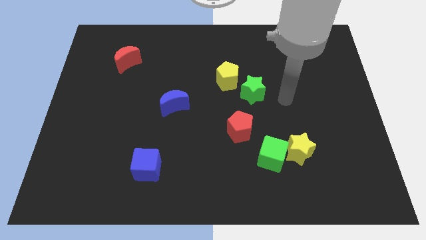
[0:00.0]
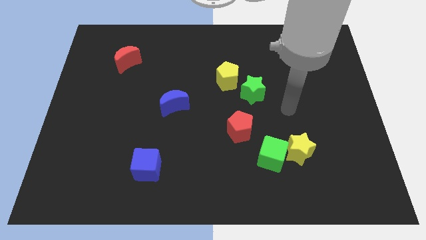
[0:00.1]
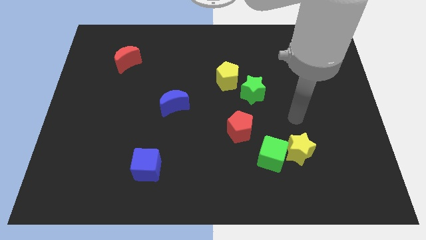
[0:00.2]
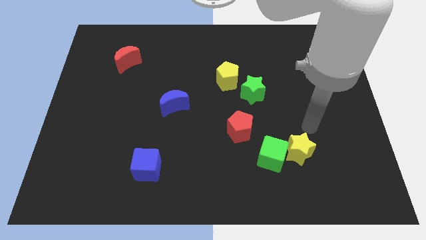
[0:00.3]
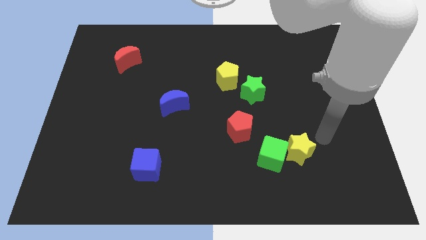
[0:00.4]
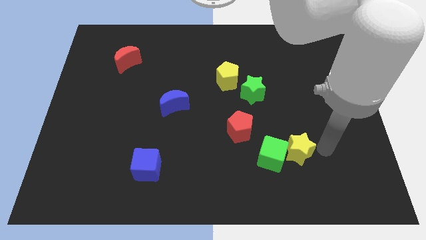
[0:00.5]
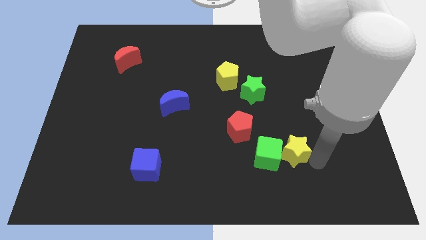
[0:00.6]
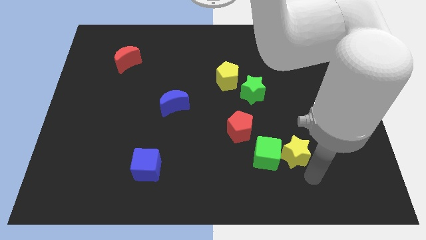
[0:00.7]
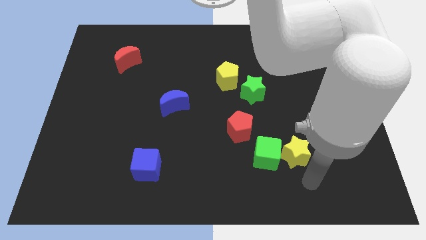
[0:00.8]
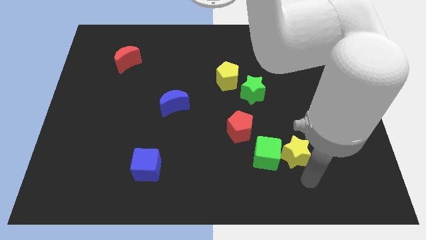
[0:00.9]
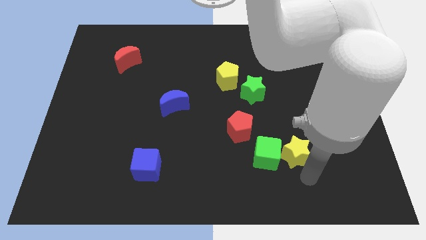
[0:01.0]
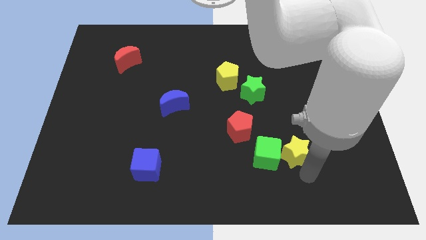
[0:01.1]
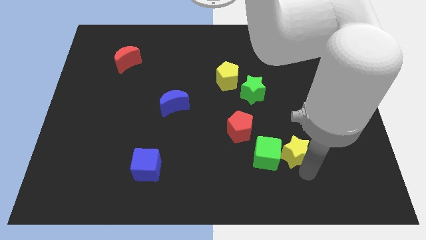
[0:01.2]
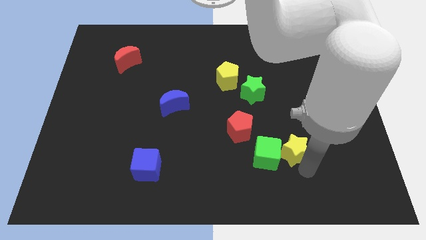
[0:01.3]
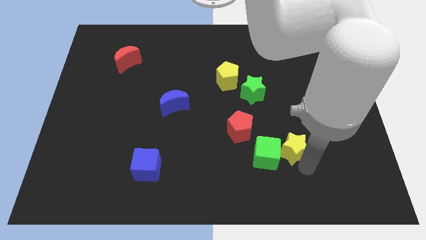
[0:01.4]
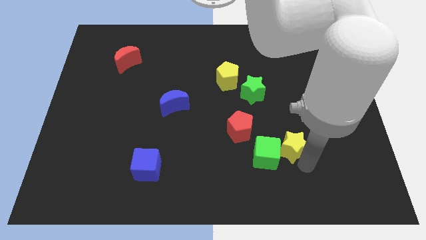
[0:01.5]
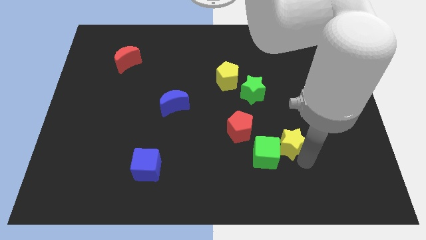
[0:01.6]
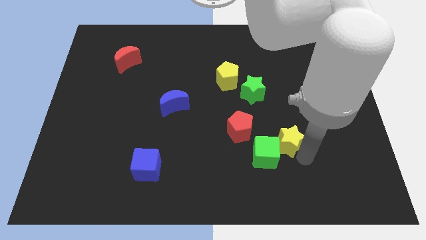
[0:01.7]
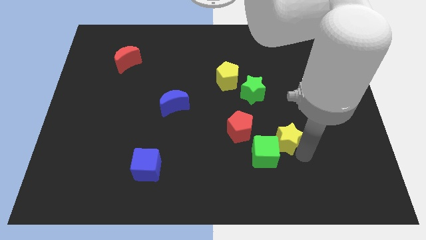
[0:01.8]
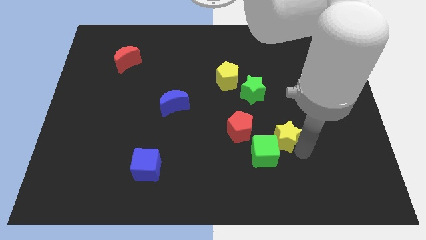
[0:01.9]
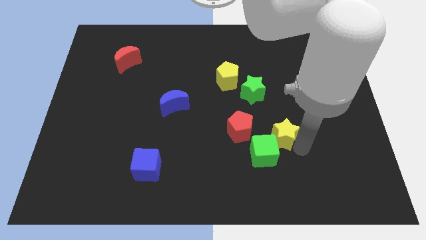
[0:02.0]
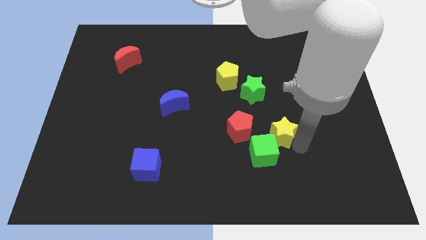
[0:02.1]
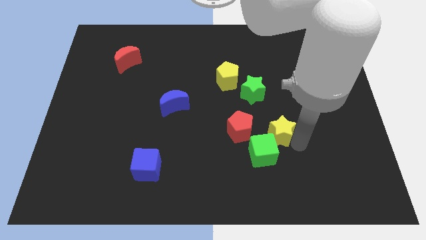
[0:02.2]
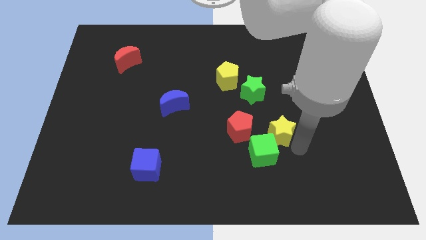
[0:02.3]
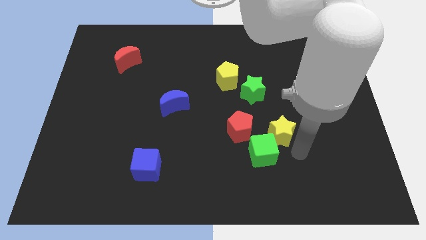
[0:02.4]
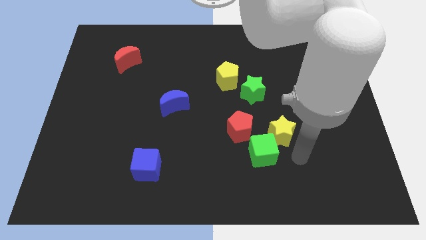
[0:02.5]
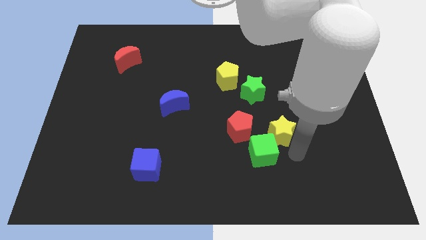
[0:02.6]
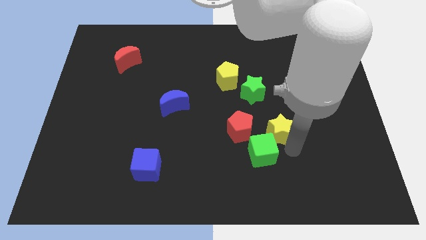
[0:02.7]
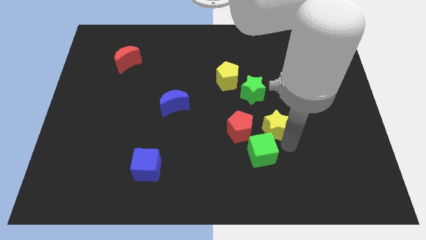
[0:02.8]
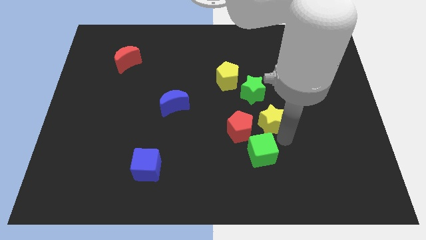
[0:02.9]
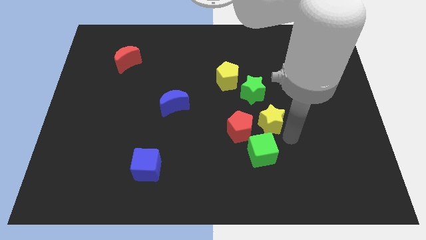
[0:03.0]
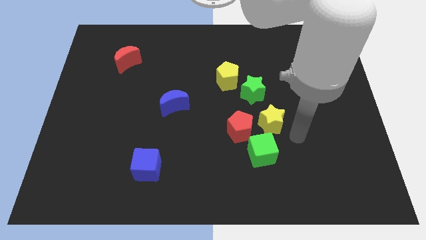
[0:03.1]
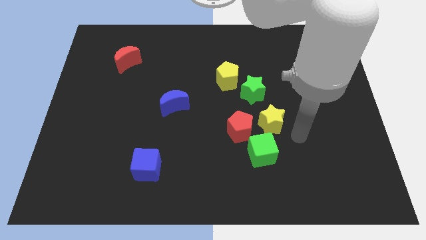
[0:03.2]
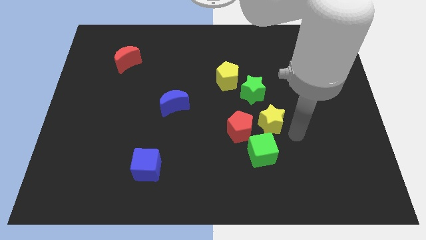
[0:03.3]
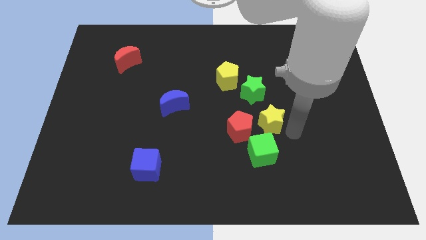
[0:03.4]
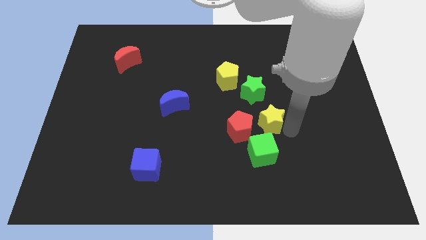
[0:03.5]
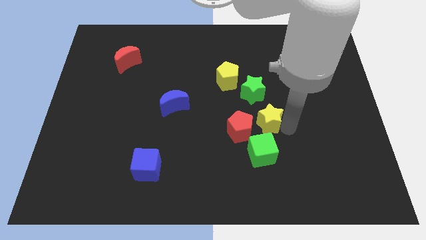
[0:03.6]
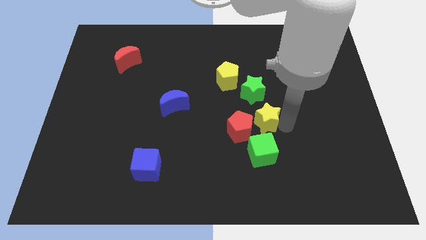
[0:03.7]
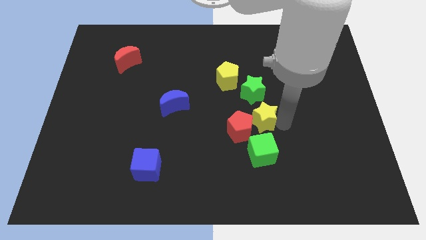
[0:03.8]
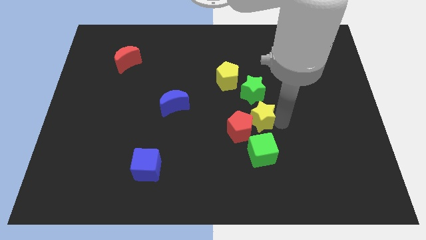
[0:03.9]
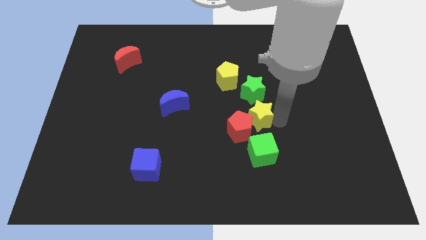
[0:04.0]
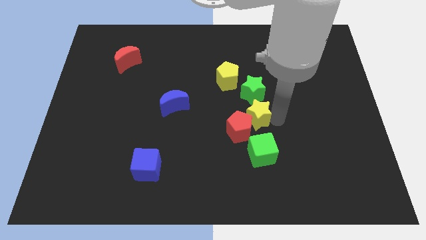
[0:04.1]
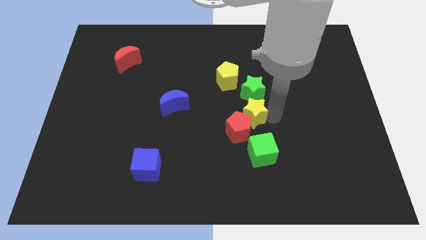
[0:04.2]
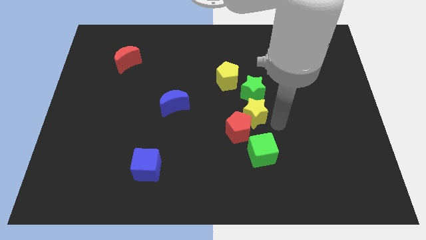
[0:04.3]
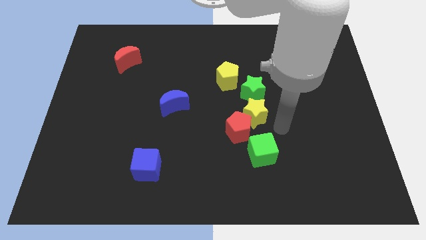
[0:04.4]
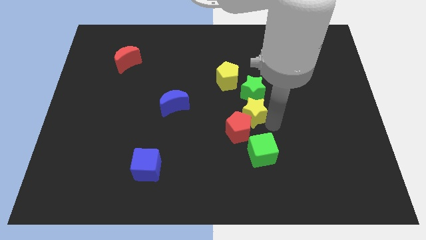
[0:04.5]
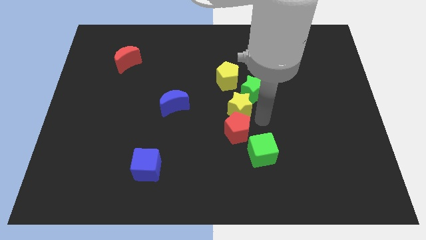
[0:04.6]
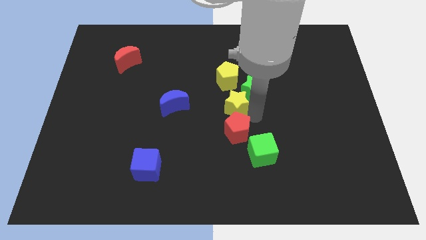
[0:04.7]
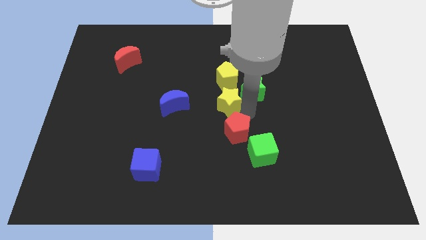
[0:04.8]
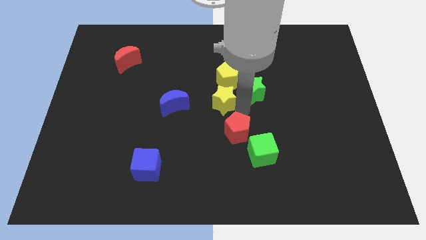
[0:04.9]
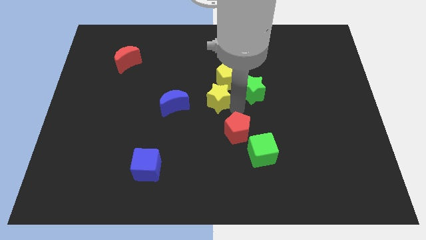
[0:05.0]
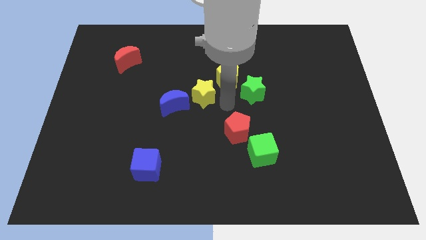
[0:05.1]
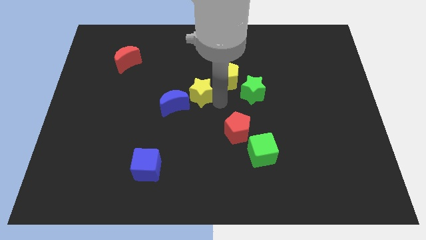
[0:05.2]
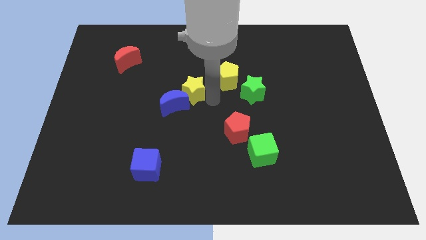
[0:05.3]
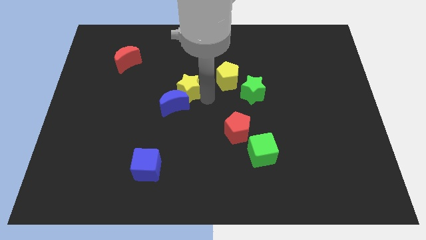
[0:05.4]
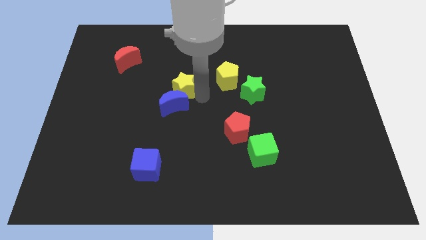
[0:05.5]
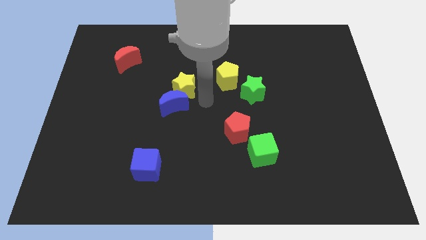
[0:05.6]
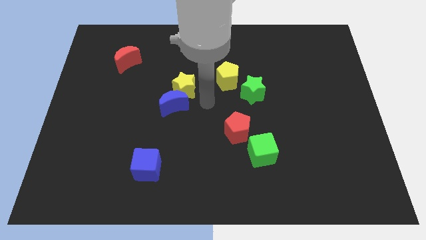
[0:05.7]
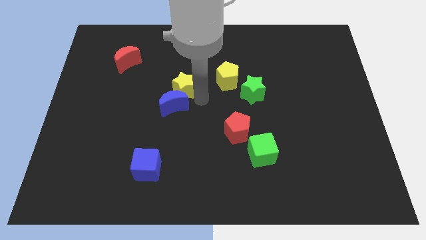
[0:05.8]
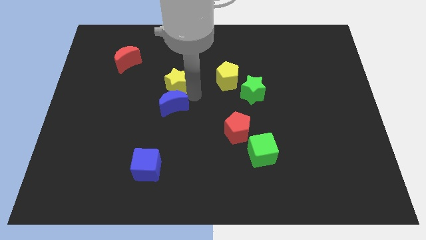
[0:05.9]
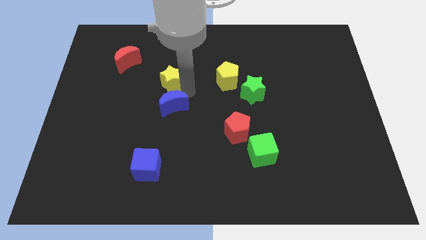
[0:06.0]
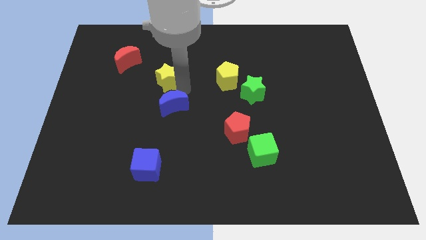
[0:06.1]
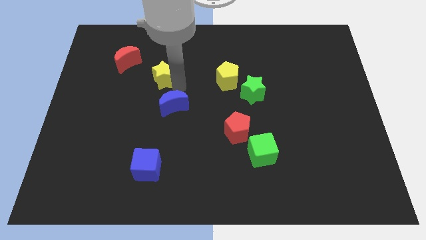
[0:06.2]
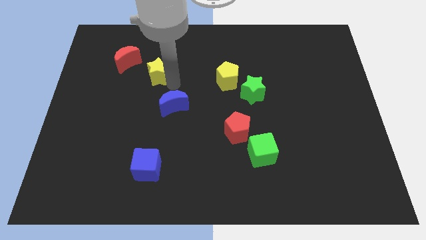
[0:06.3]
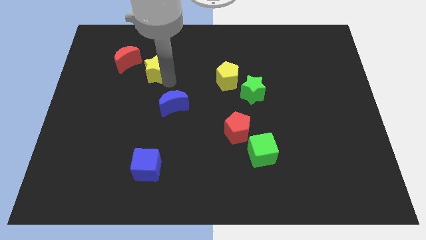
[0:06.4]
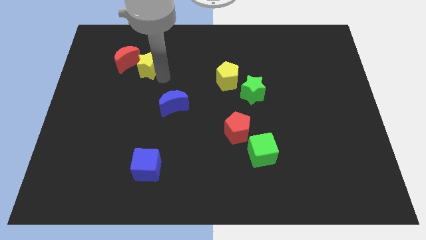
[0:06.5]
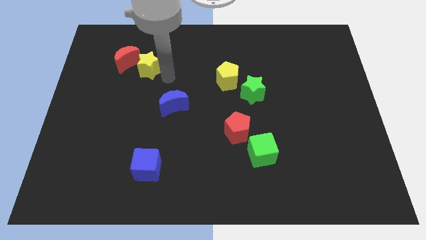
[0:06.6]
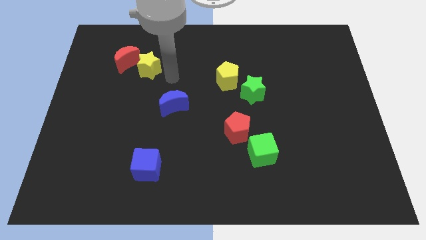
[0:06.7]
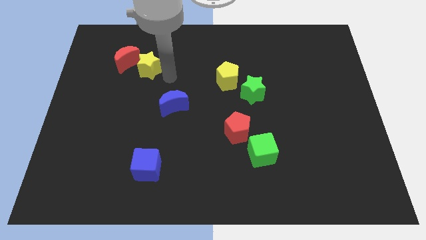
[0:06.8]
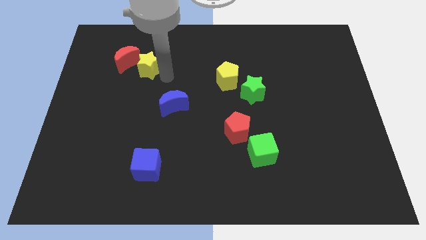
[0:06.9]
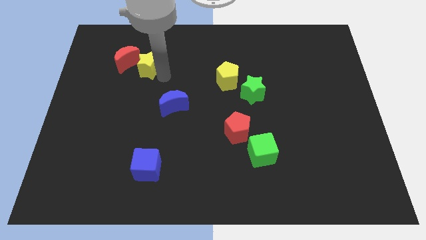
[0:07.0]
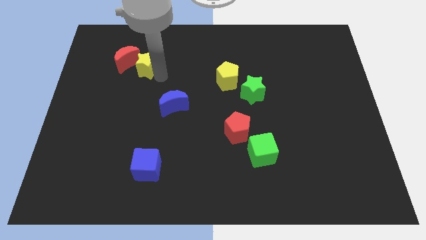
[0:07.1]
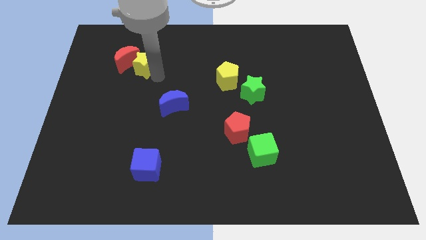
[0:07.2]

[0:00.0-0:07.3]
slide the yellow star close to the red moon
